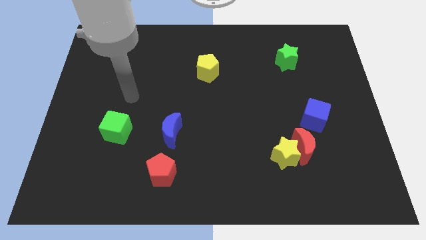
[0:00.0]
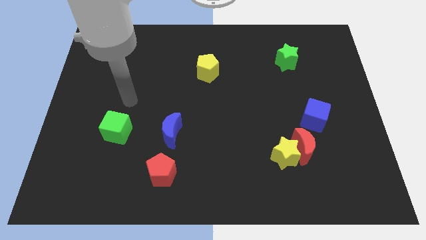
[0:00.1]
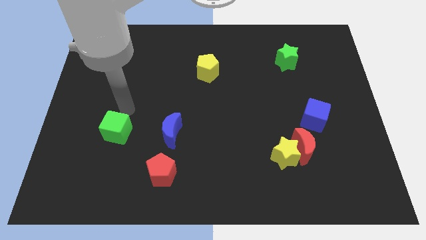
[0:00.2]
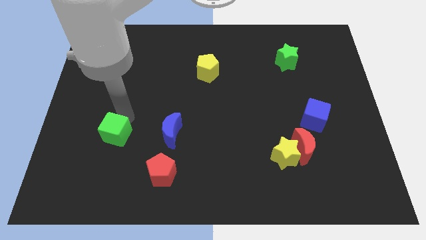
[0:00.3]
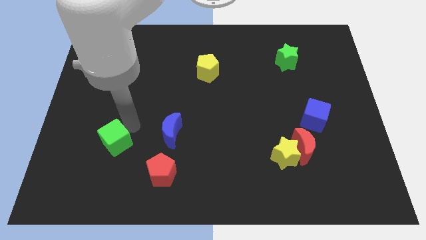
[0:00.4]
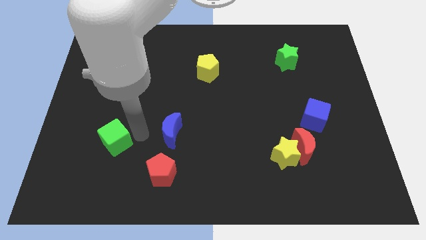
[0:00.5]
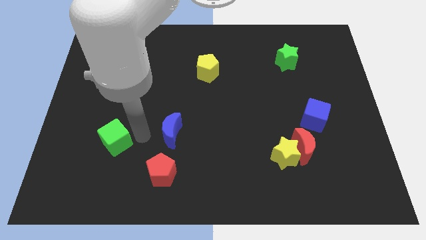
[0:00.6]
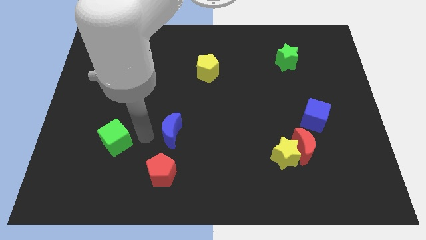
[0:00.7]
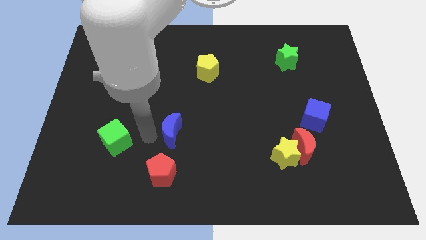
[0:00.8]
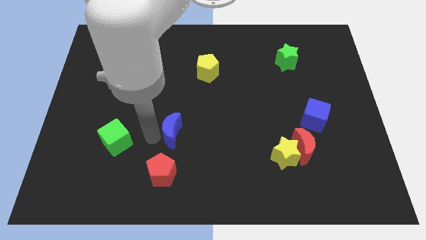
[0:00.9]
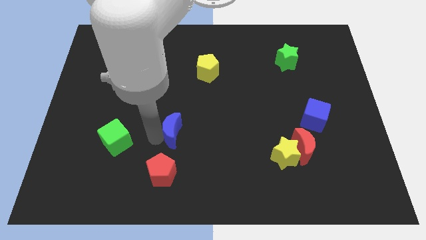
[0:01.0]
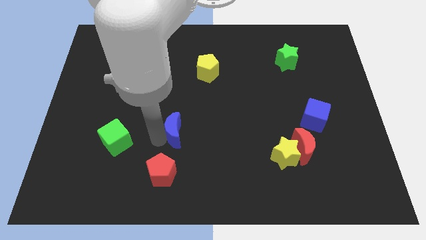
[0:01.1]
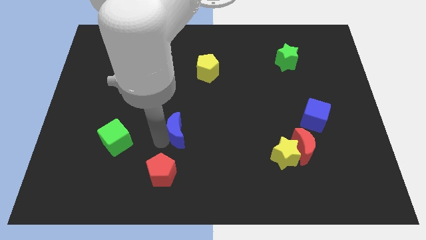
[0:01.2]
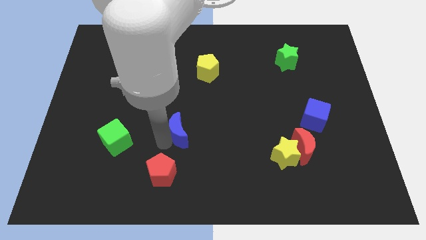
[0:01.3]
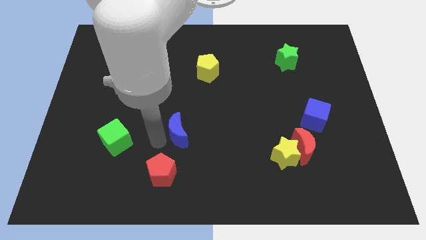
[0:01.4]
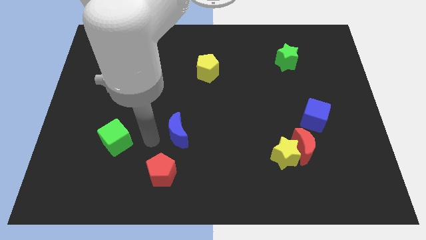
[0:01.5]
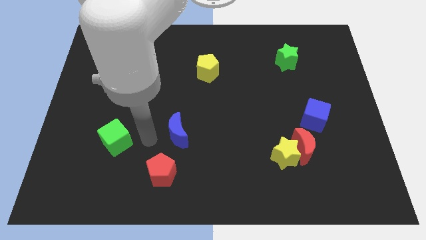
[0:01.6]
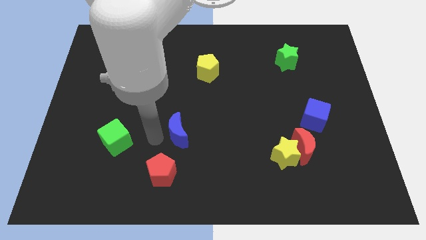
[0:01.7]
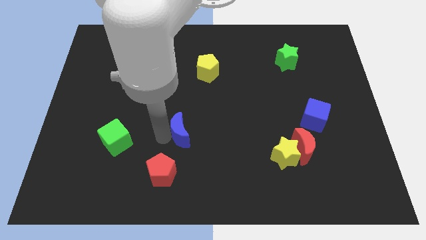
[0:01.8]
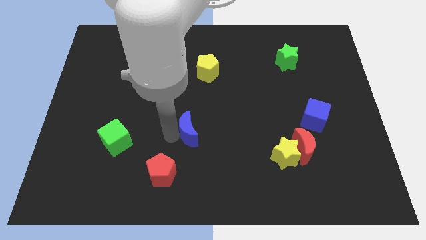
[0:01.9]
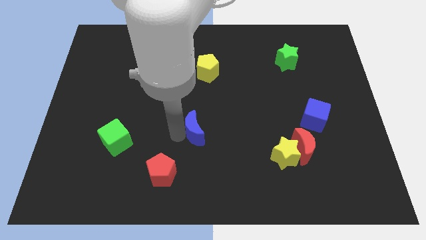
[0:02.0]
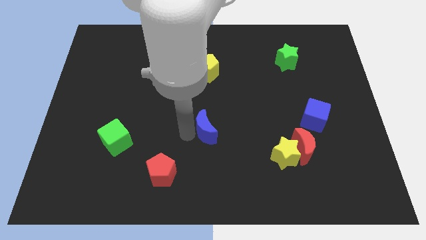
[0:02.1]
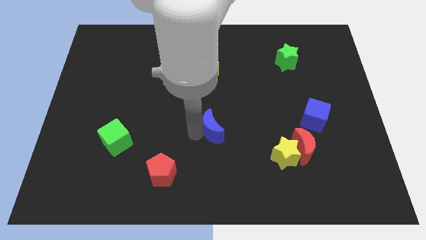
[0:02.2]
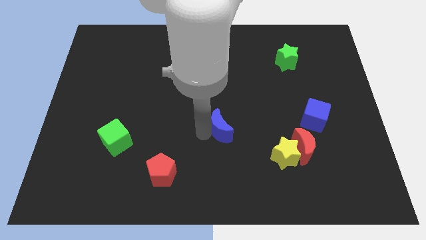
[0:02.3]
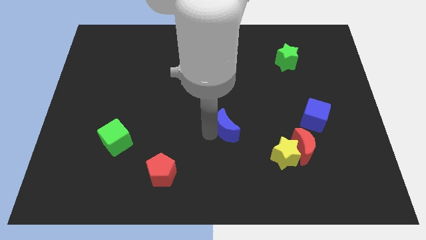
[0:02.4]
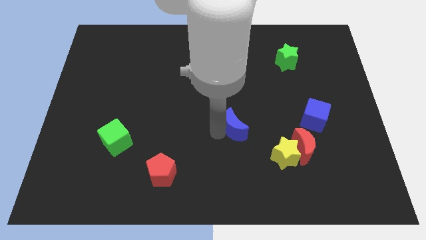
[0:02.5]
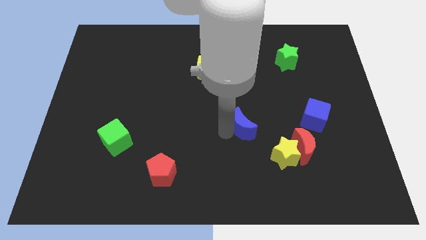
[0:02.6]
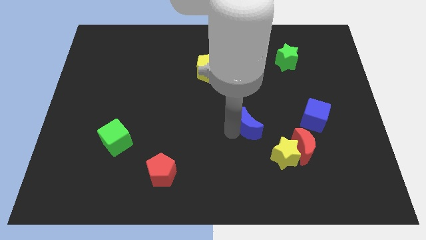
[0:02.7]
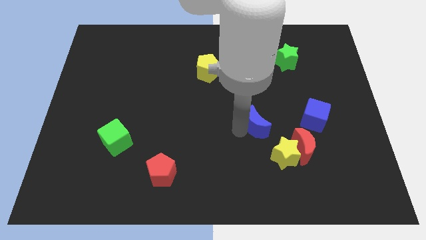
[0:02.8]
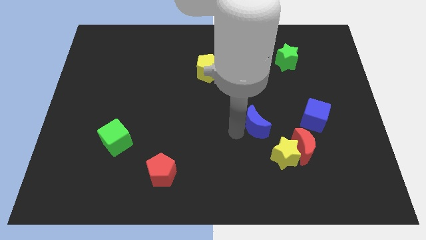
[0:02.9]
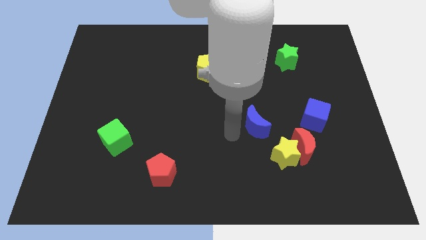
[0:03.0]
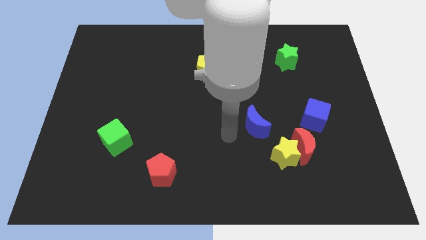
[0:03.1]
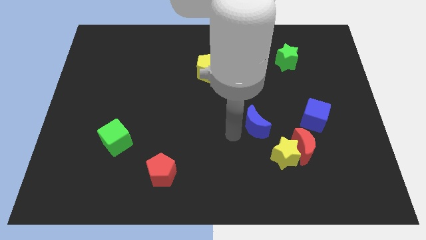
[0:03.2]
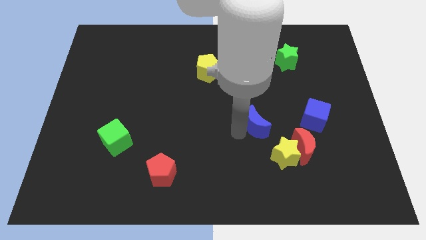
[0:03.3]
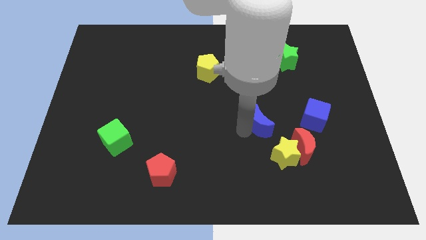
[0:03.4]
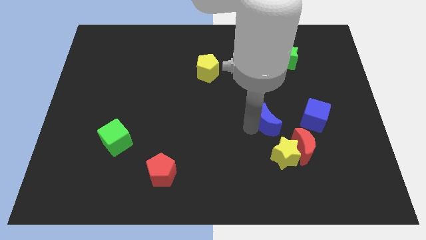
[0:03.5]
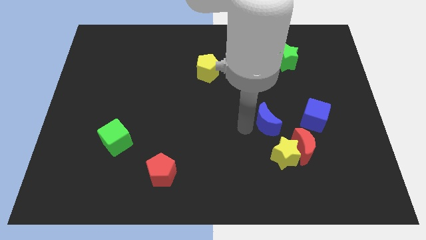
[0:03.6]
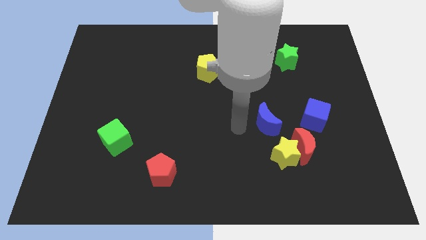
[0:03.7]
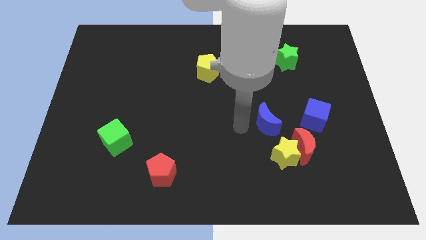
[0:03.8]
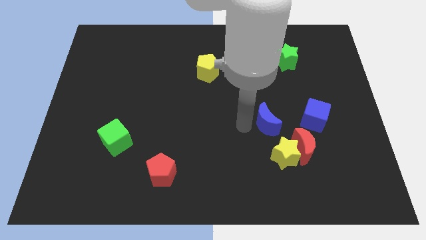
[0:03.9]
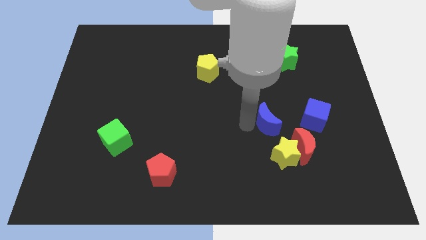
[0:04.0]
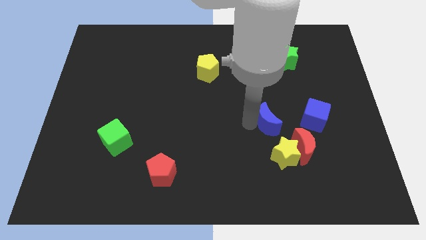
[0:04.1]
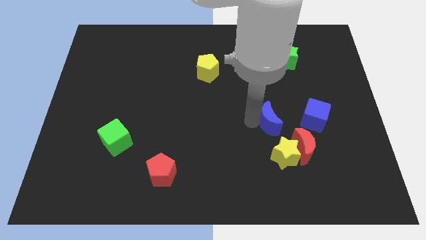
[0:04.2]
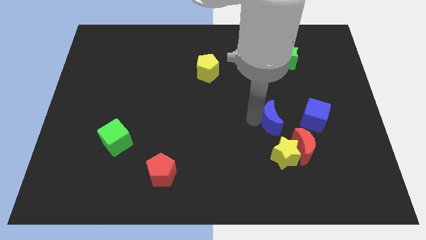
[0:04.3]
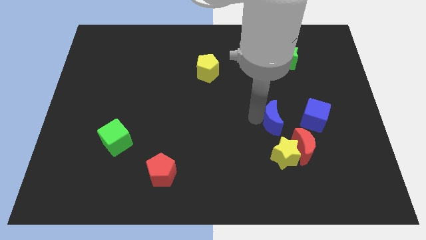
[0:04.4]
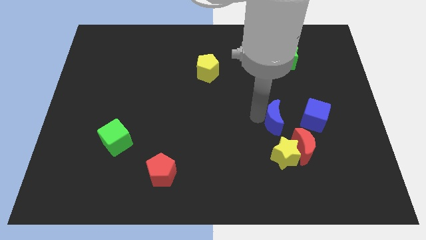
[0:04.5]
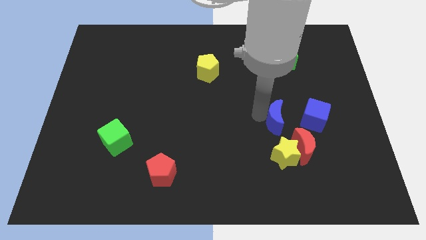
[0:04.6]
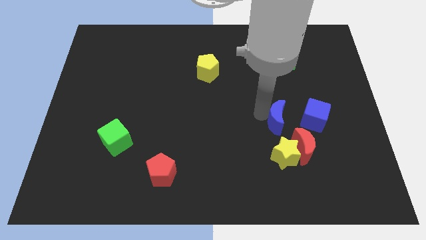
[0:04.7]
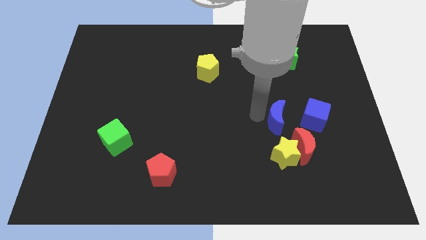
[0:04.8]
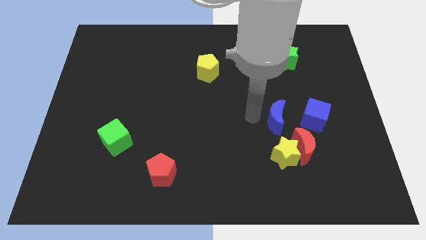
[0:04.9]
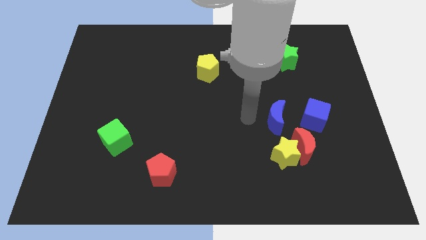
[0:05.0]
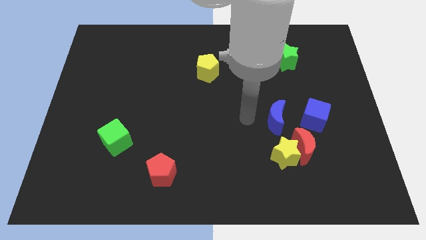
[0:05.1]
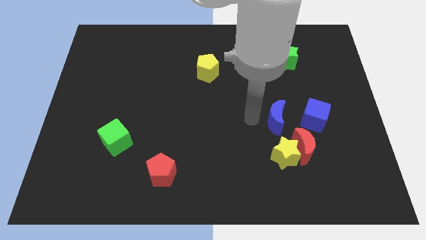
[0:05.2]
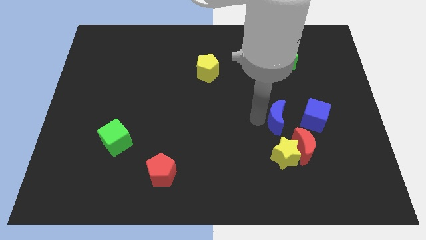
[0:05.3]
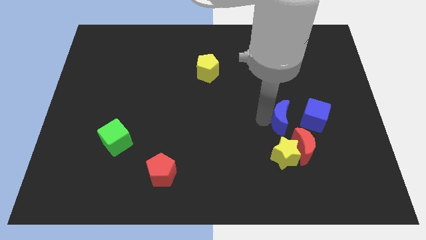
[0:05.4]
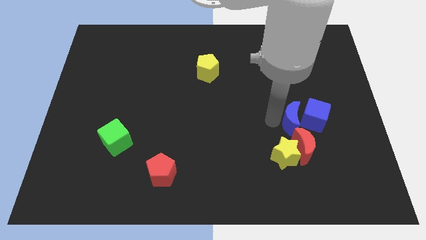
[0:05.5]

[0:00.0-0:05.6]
slide the blue moon to the blue cube

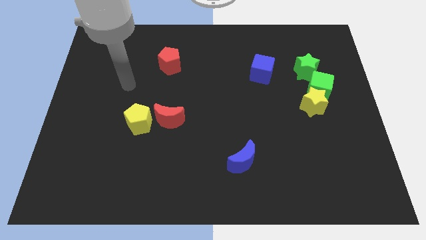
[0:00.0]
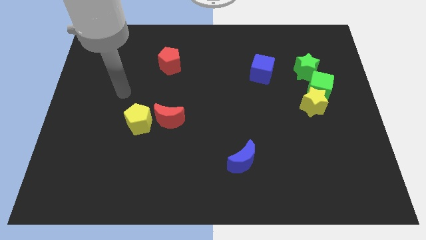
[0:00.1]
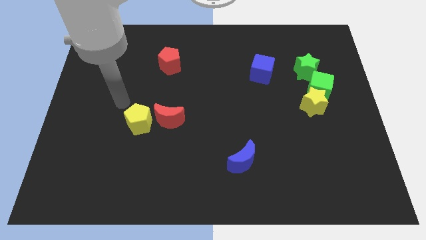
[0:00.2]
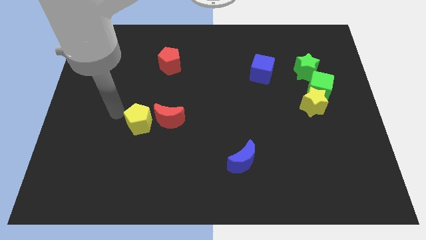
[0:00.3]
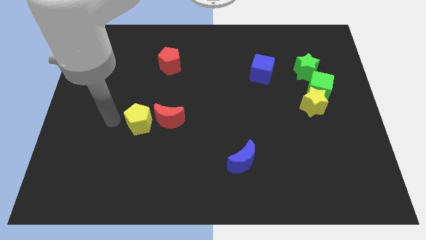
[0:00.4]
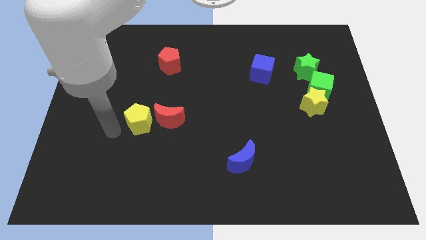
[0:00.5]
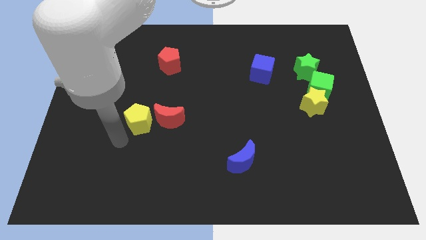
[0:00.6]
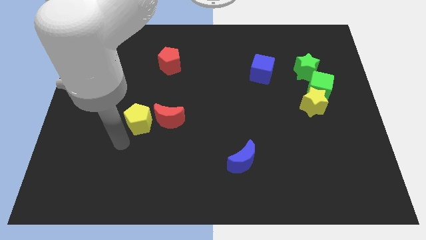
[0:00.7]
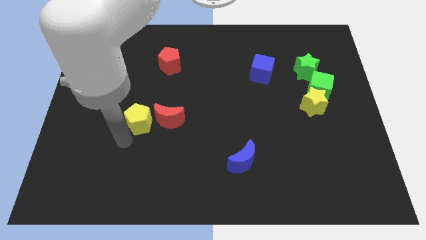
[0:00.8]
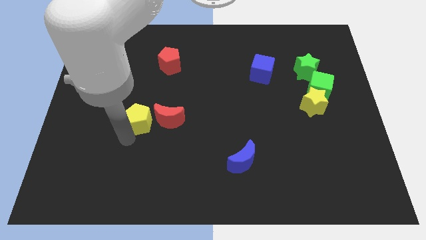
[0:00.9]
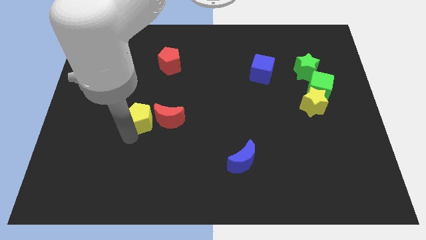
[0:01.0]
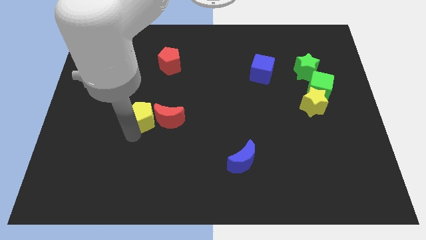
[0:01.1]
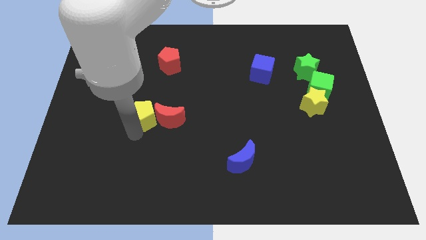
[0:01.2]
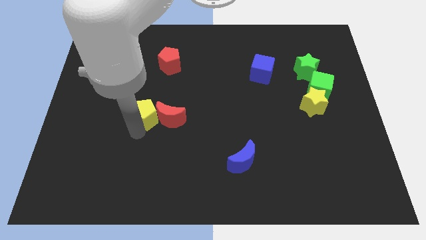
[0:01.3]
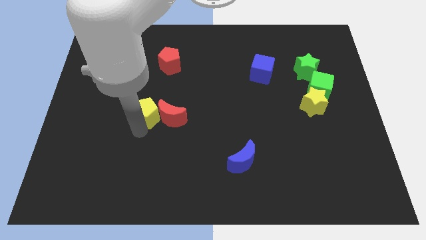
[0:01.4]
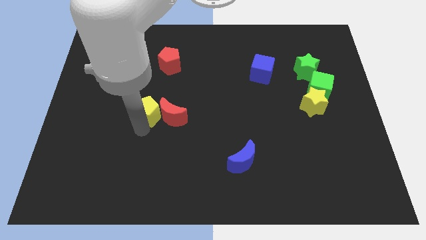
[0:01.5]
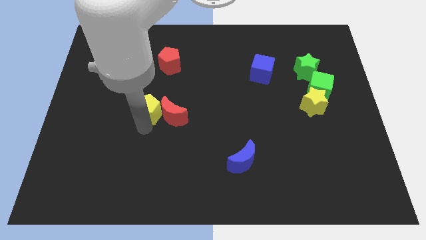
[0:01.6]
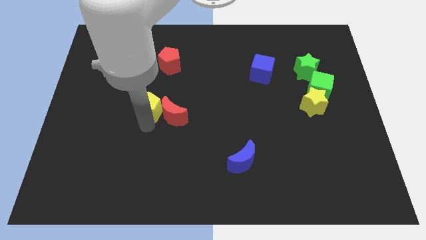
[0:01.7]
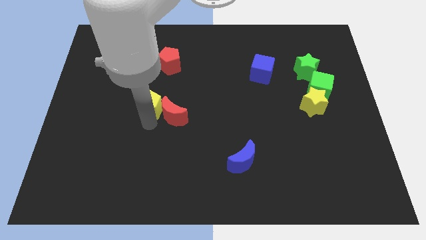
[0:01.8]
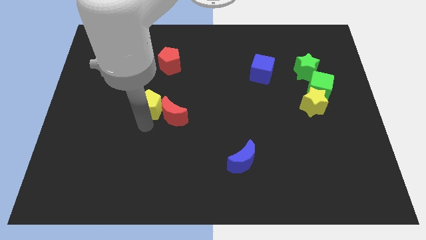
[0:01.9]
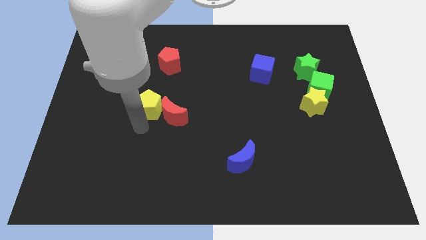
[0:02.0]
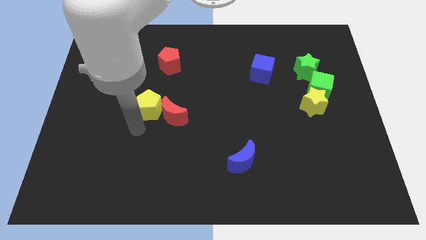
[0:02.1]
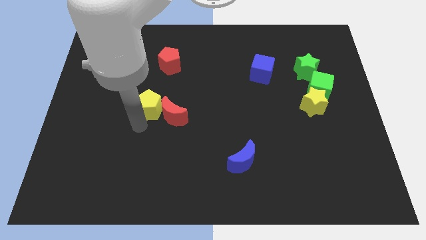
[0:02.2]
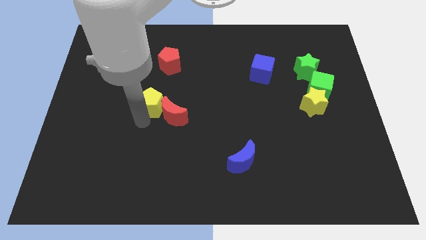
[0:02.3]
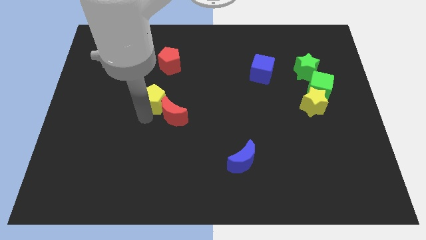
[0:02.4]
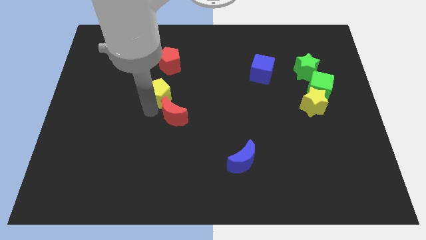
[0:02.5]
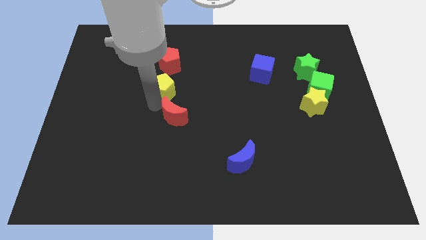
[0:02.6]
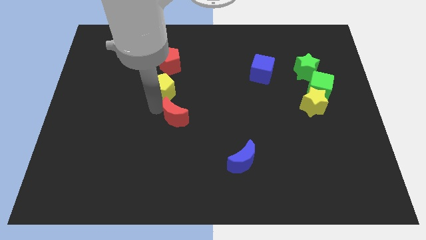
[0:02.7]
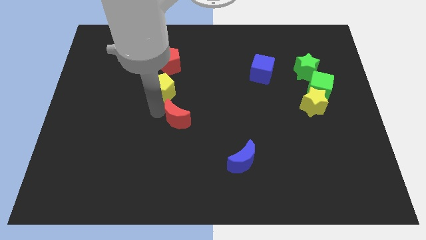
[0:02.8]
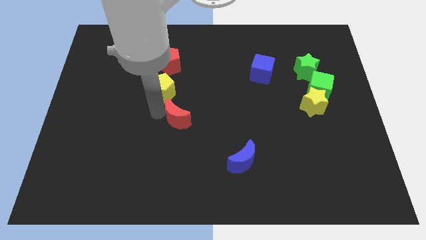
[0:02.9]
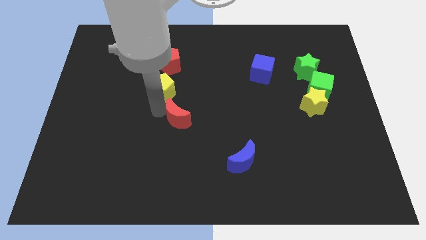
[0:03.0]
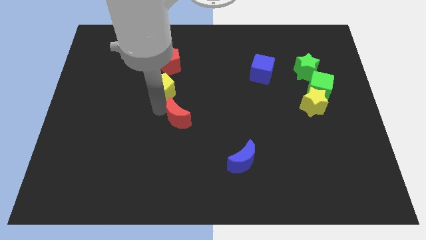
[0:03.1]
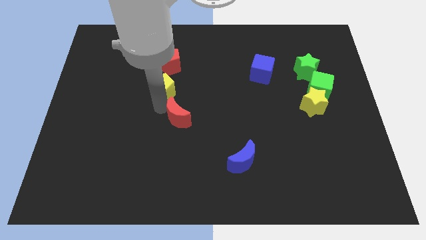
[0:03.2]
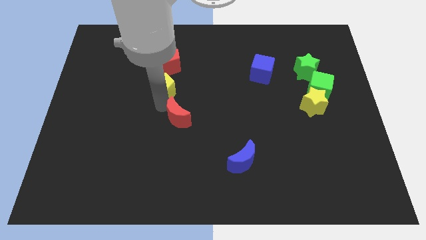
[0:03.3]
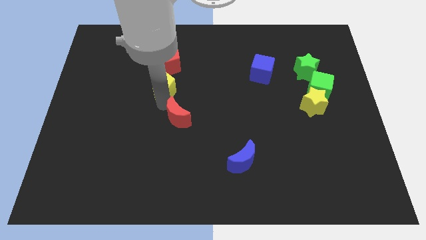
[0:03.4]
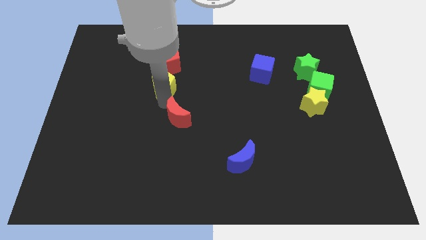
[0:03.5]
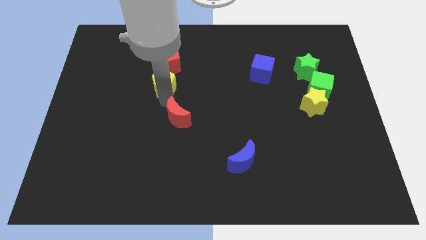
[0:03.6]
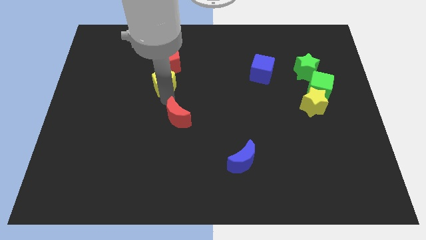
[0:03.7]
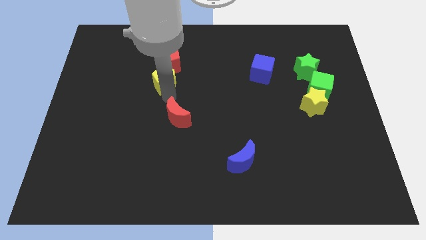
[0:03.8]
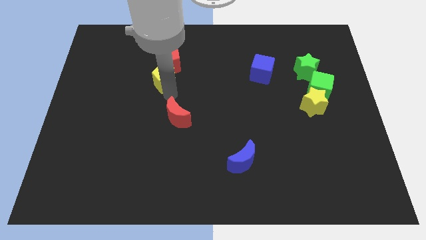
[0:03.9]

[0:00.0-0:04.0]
move the yellow pentagon next to the red pentagon
